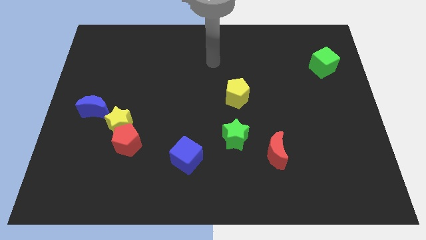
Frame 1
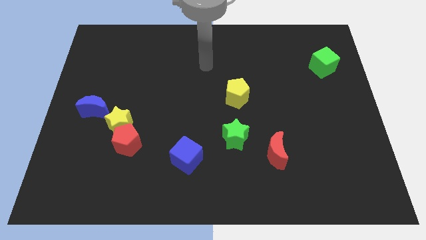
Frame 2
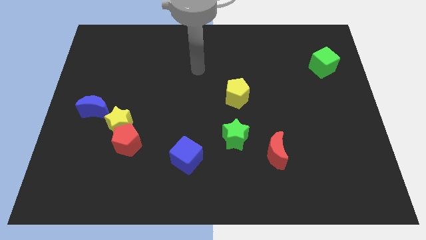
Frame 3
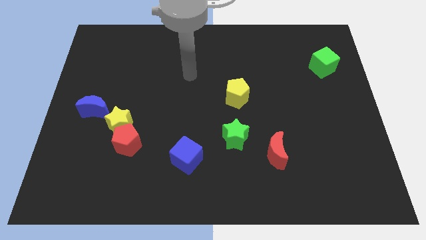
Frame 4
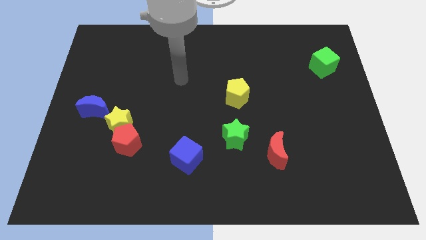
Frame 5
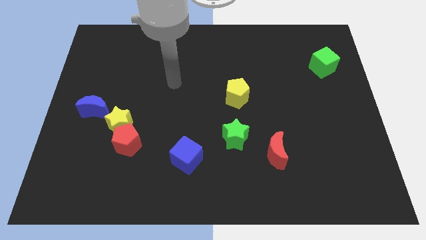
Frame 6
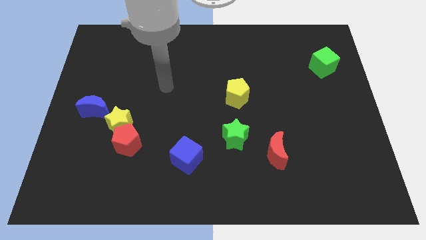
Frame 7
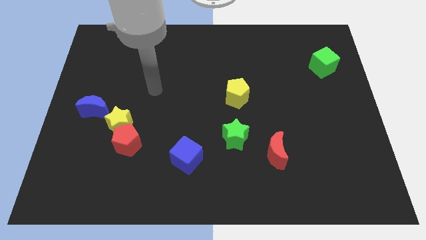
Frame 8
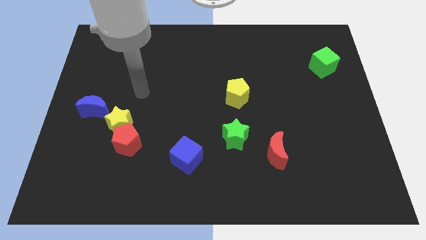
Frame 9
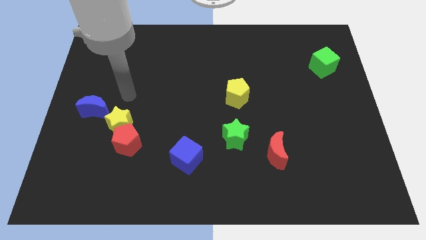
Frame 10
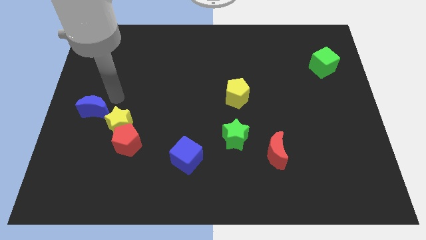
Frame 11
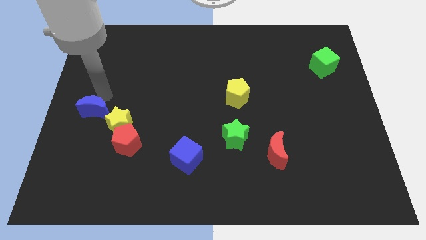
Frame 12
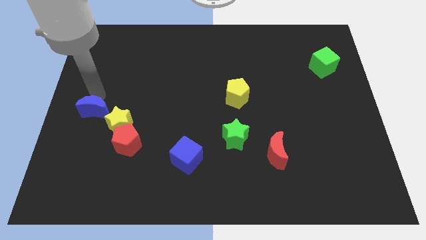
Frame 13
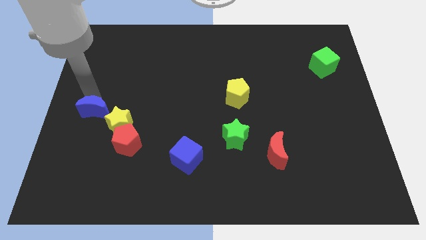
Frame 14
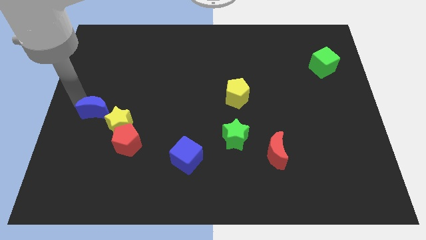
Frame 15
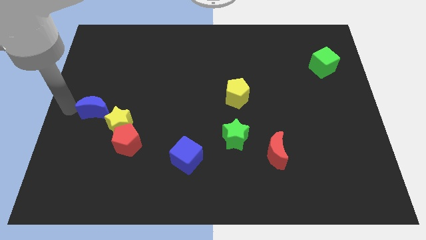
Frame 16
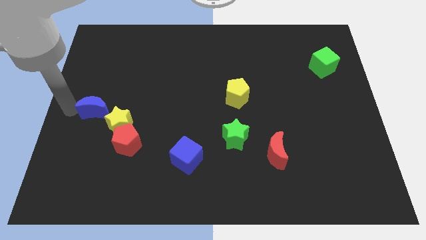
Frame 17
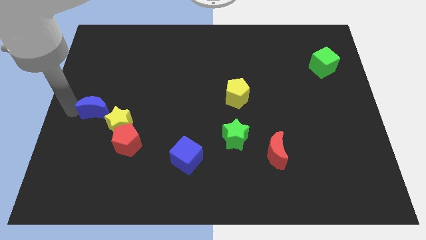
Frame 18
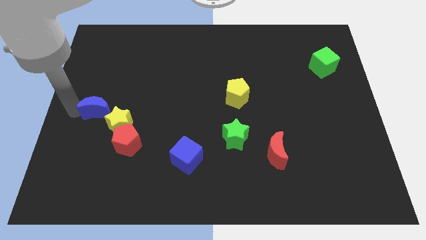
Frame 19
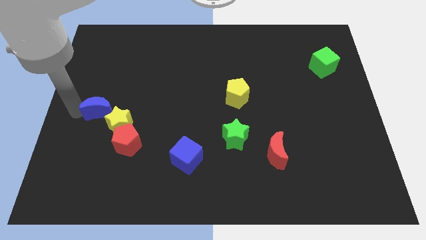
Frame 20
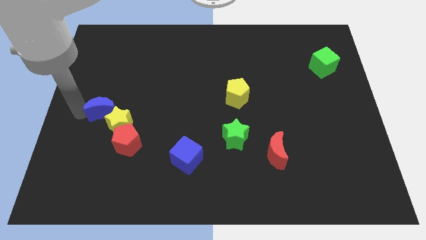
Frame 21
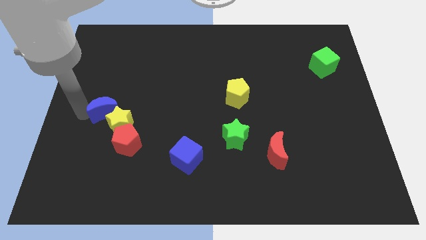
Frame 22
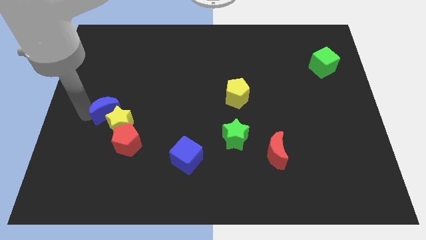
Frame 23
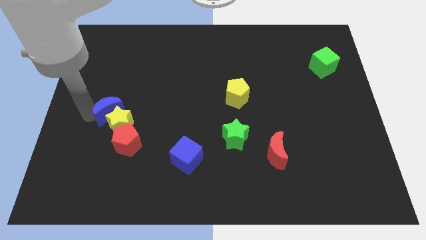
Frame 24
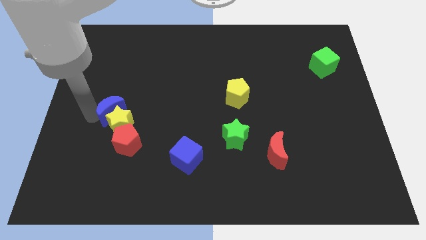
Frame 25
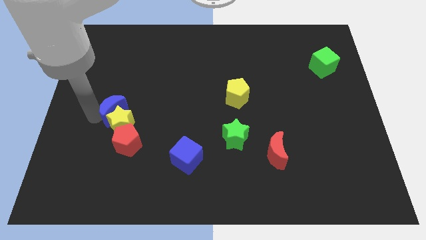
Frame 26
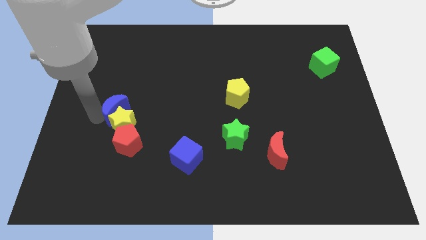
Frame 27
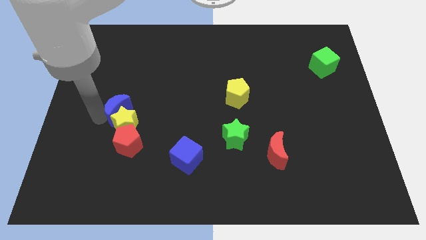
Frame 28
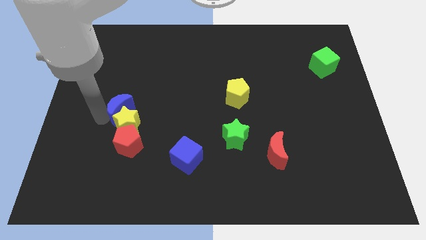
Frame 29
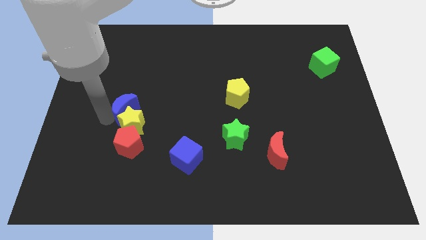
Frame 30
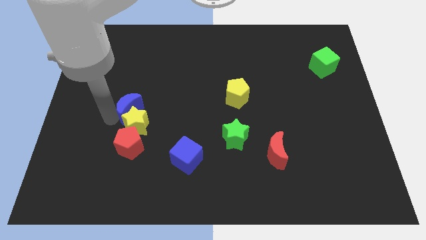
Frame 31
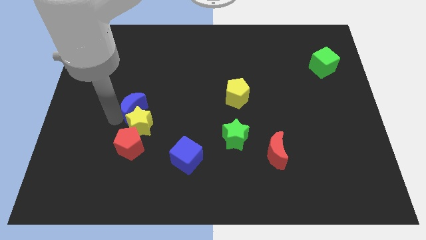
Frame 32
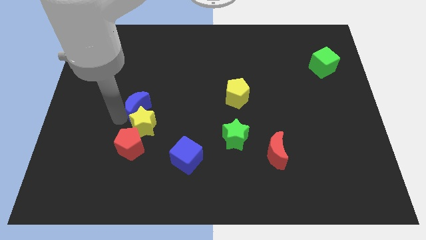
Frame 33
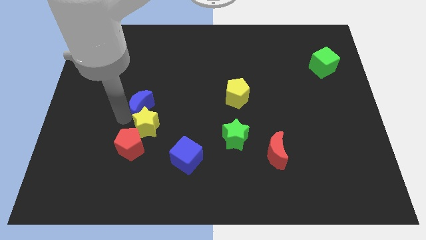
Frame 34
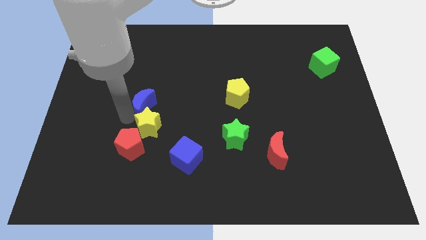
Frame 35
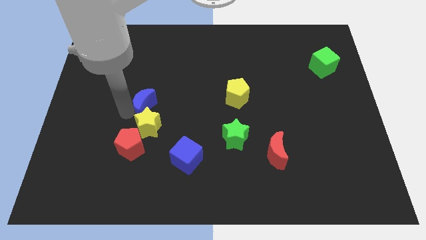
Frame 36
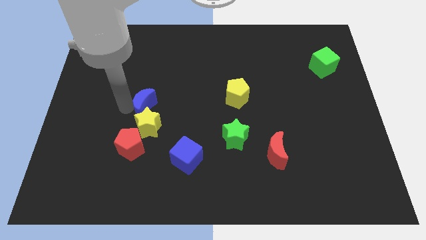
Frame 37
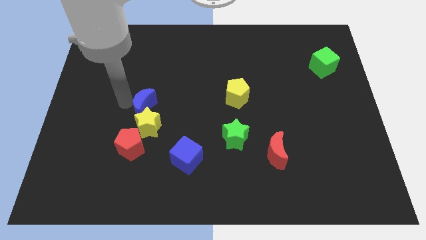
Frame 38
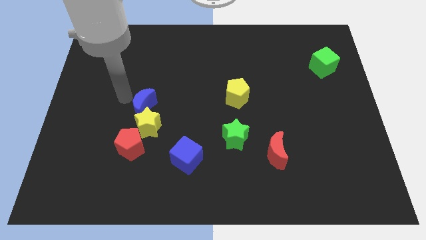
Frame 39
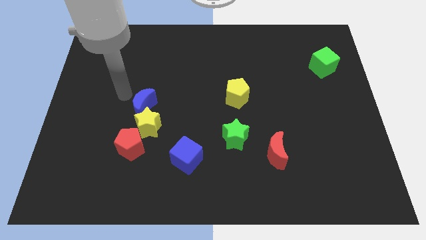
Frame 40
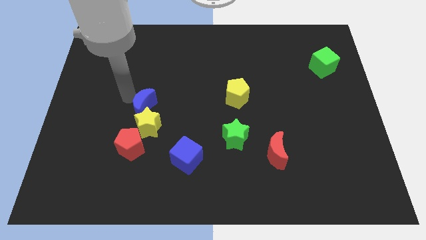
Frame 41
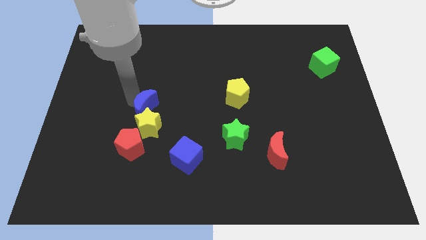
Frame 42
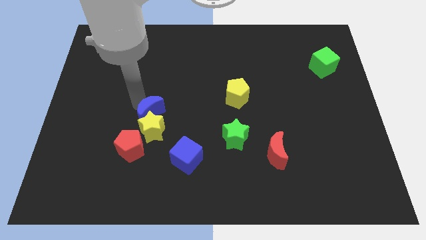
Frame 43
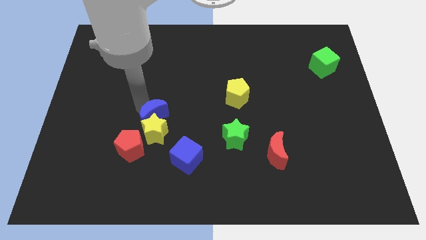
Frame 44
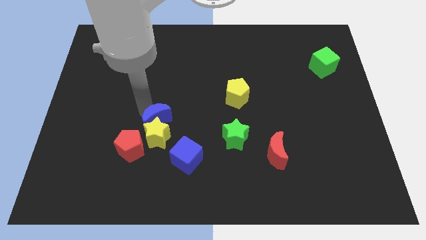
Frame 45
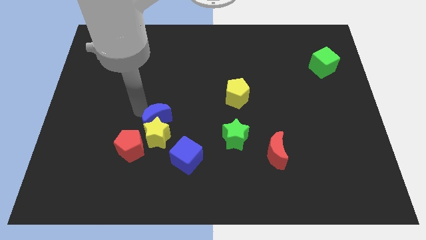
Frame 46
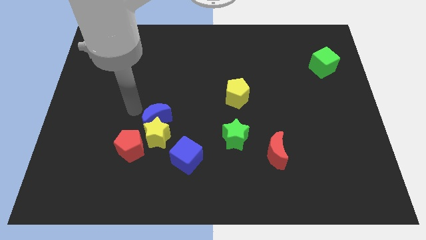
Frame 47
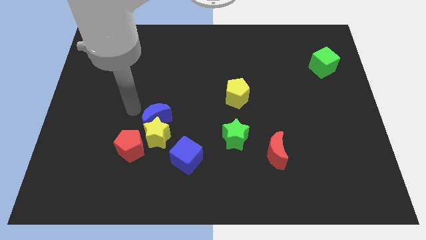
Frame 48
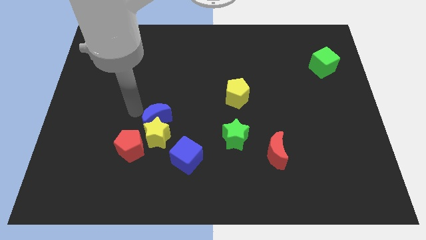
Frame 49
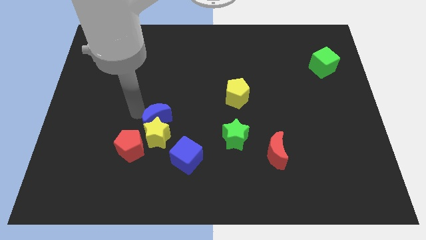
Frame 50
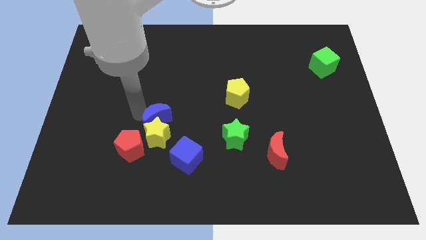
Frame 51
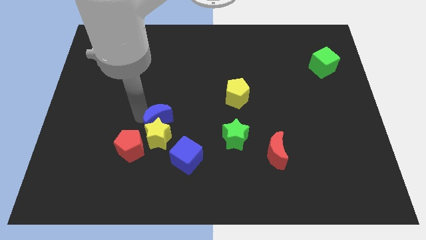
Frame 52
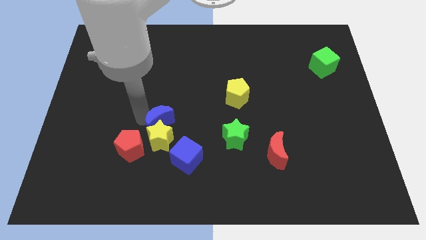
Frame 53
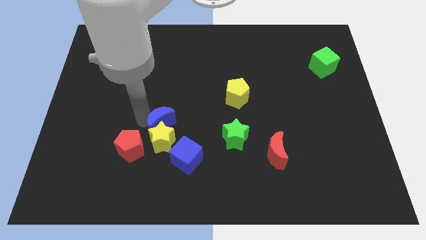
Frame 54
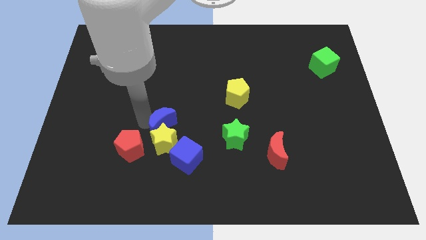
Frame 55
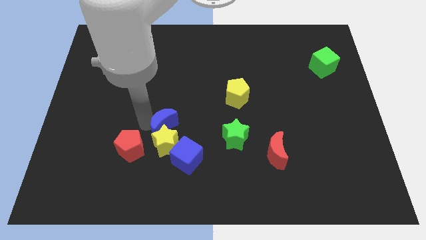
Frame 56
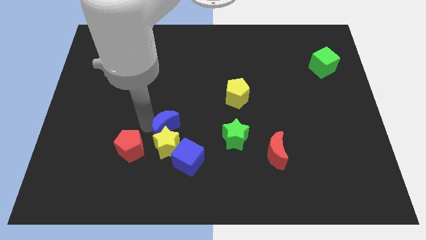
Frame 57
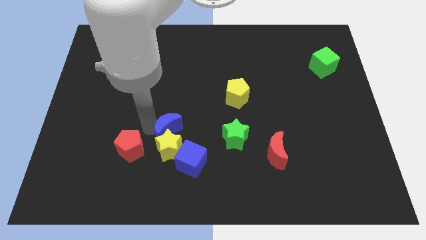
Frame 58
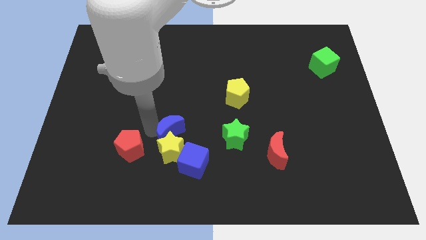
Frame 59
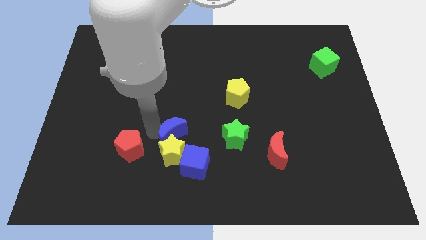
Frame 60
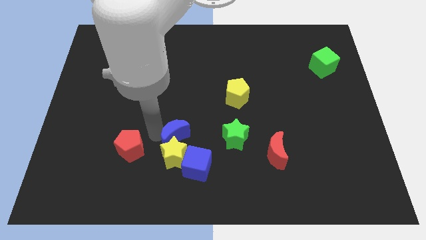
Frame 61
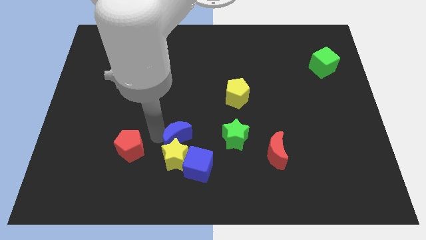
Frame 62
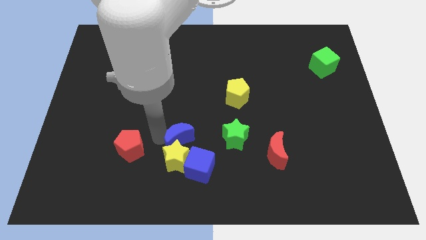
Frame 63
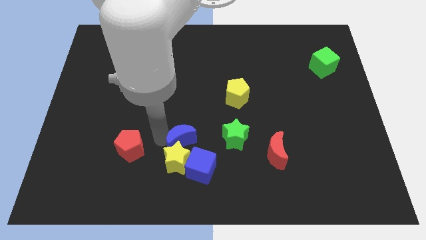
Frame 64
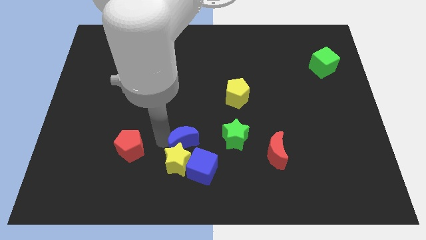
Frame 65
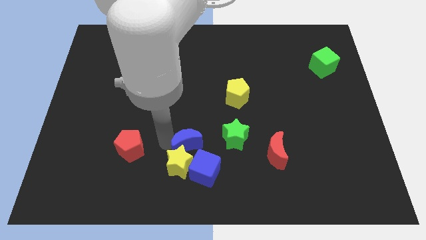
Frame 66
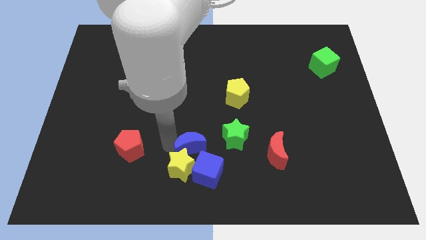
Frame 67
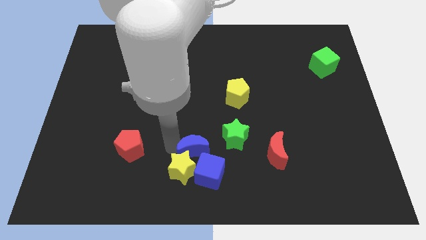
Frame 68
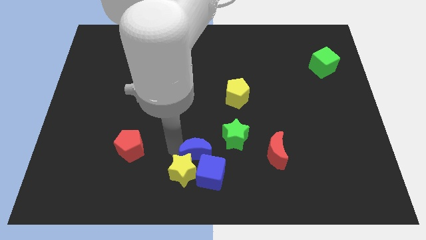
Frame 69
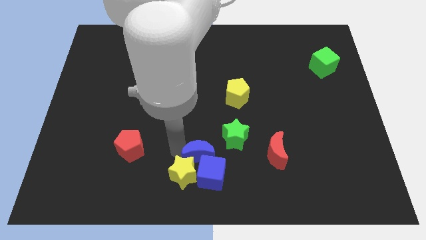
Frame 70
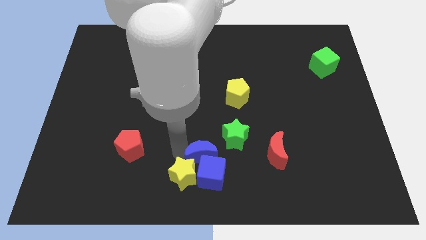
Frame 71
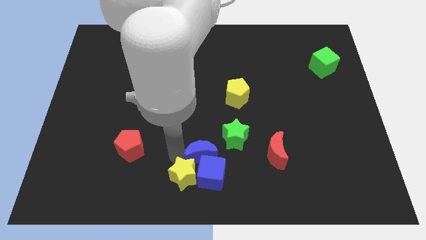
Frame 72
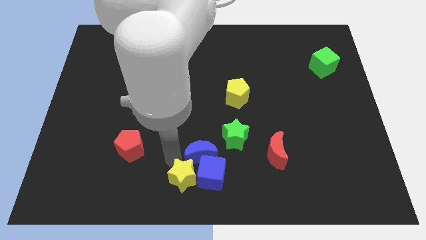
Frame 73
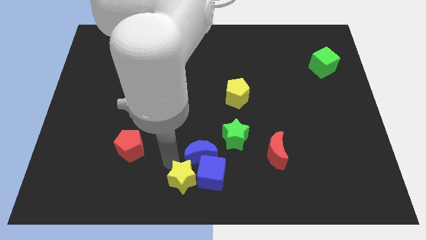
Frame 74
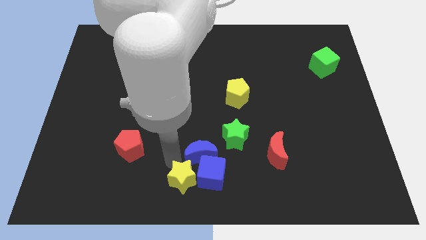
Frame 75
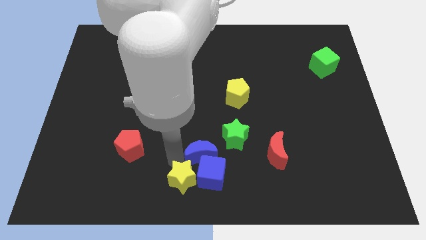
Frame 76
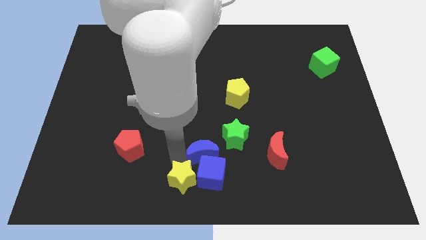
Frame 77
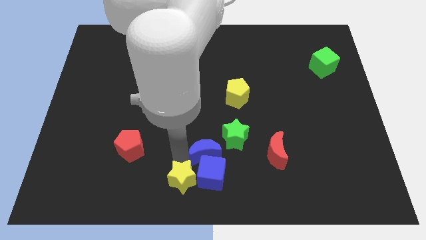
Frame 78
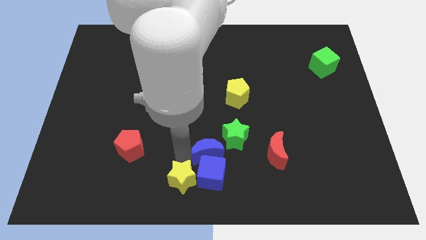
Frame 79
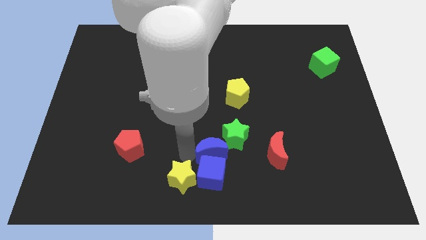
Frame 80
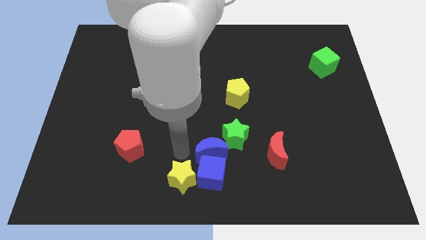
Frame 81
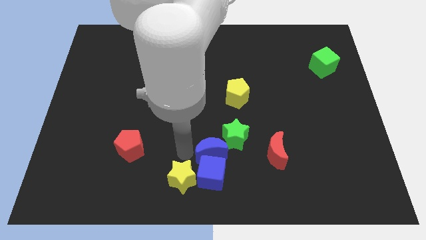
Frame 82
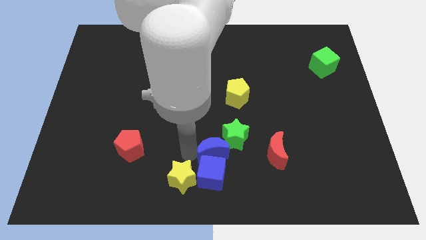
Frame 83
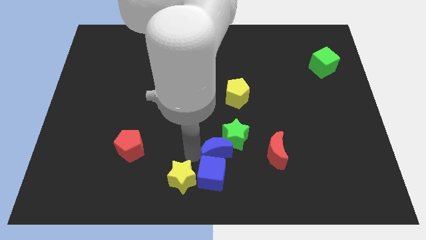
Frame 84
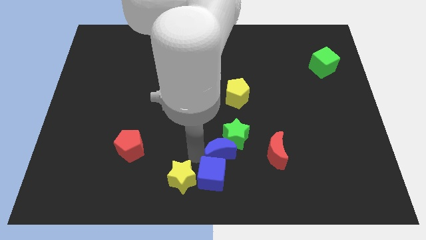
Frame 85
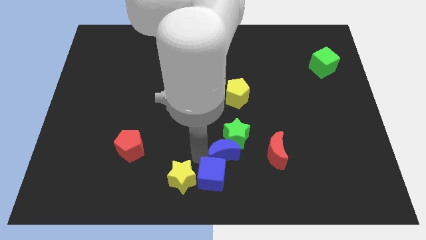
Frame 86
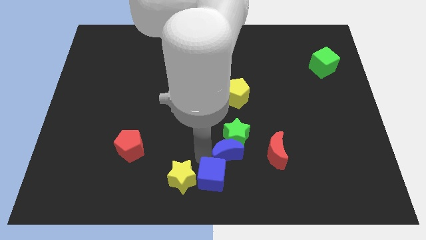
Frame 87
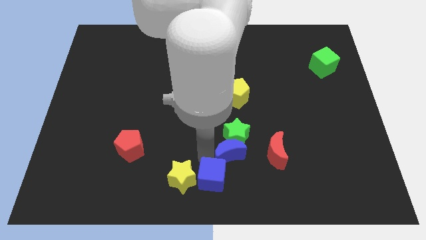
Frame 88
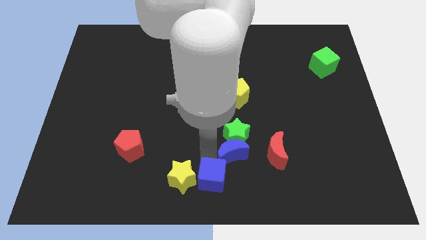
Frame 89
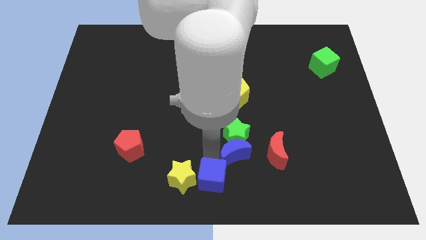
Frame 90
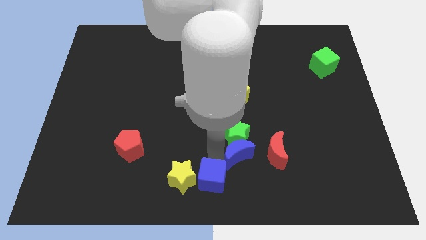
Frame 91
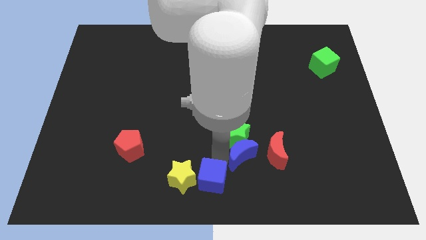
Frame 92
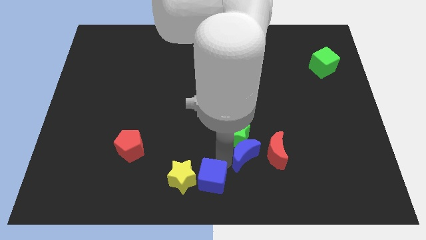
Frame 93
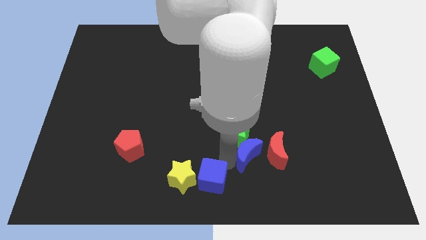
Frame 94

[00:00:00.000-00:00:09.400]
put the blue moon close to the red moon
